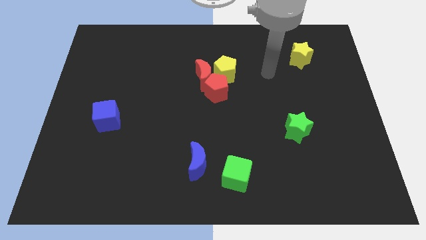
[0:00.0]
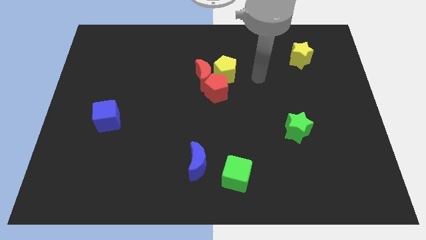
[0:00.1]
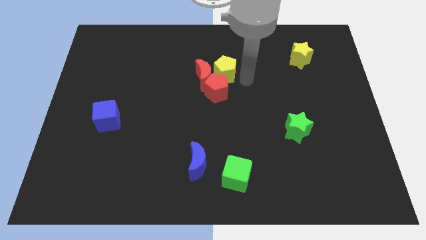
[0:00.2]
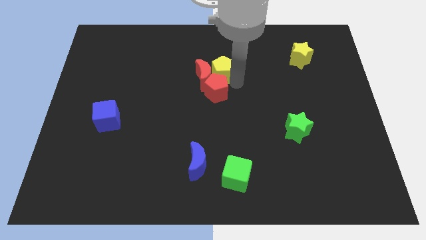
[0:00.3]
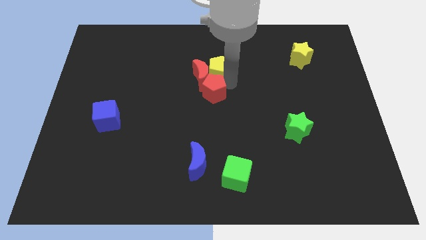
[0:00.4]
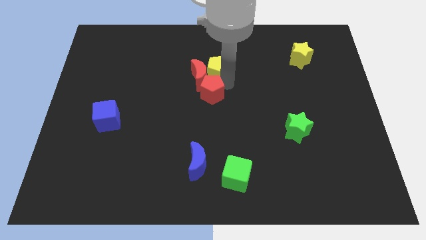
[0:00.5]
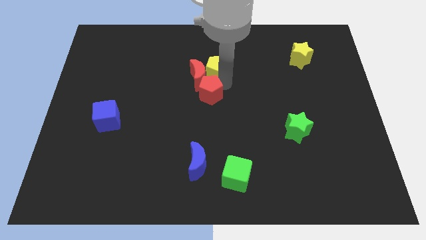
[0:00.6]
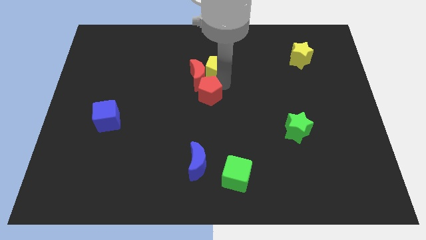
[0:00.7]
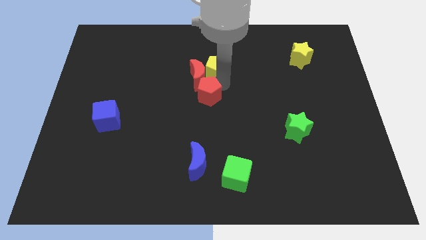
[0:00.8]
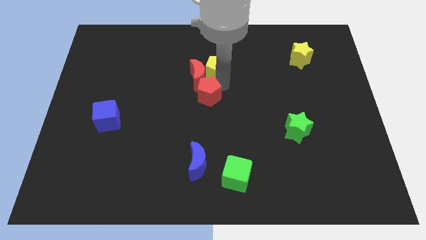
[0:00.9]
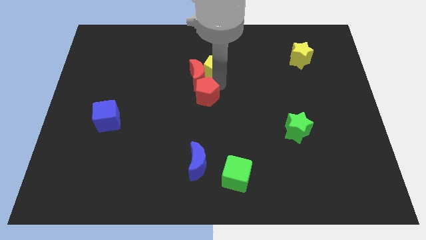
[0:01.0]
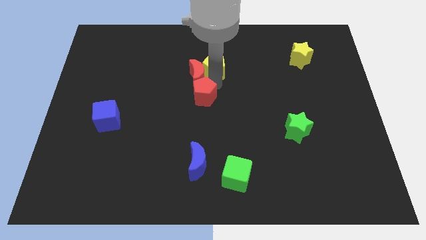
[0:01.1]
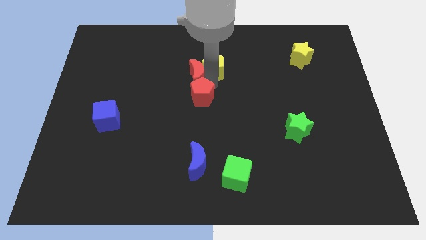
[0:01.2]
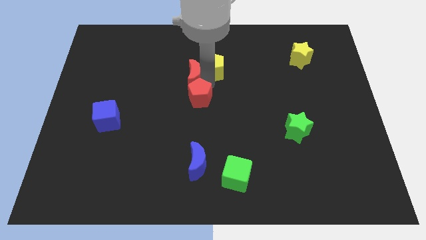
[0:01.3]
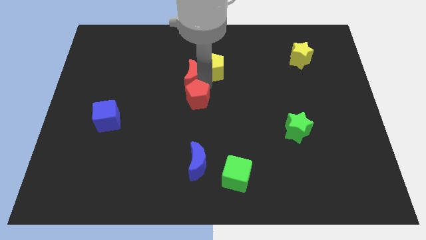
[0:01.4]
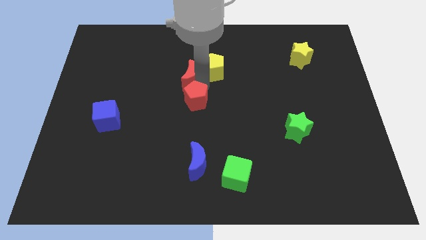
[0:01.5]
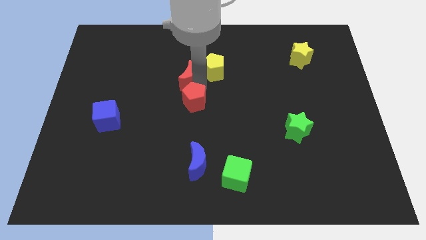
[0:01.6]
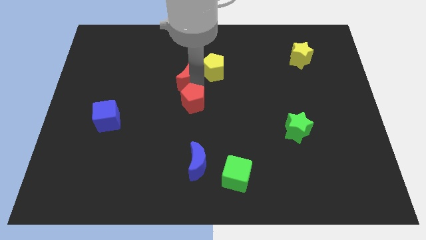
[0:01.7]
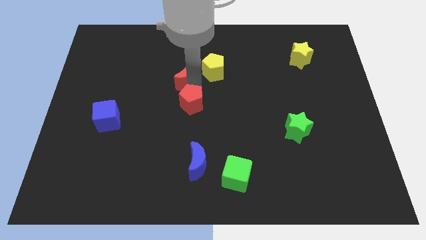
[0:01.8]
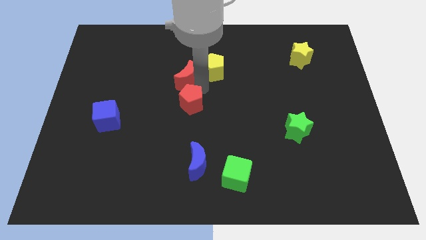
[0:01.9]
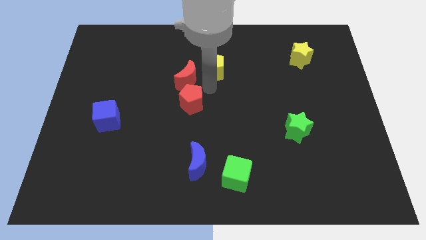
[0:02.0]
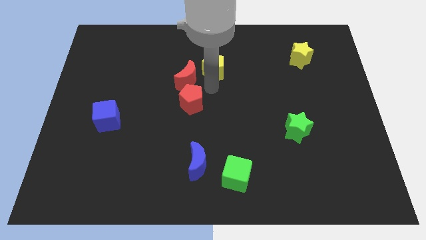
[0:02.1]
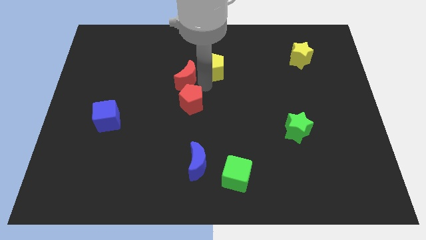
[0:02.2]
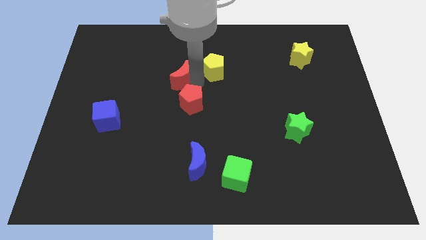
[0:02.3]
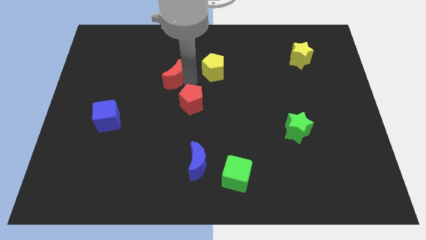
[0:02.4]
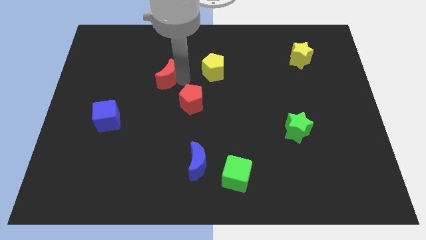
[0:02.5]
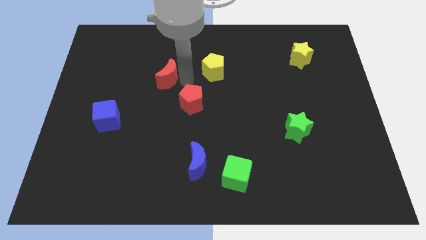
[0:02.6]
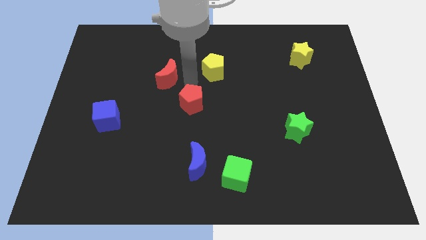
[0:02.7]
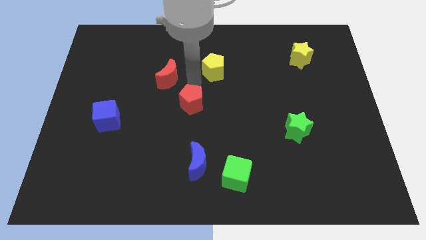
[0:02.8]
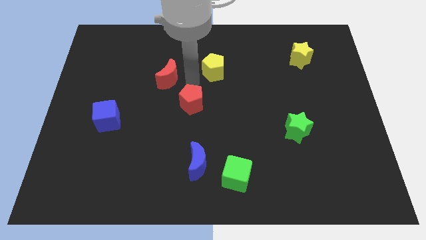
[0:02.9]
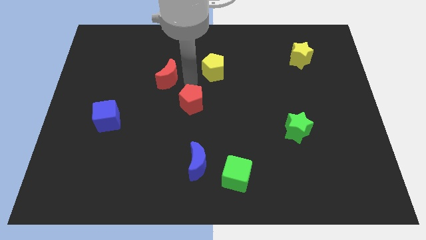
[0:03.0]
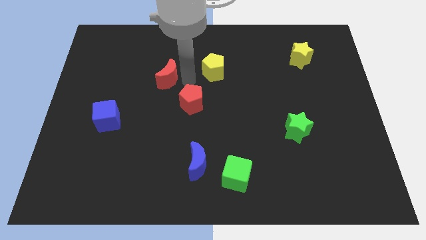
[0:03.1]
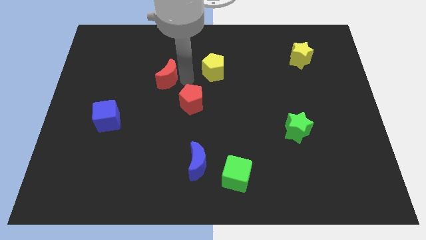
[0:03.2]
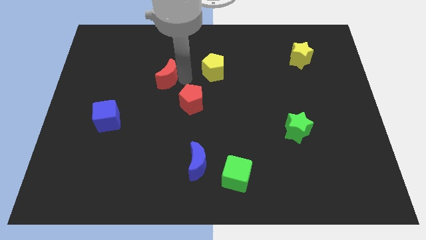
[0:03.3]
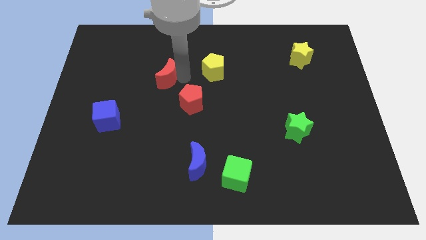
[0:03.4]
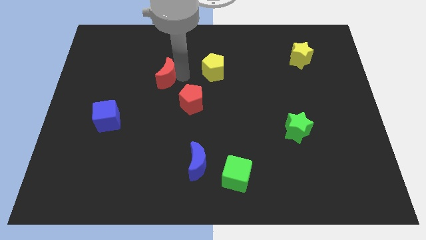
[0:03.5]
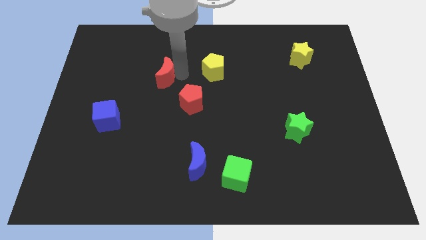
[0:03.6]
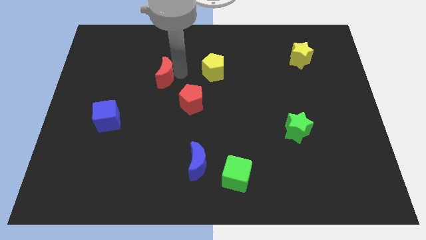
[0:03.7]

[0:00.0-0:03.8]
pull the red moon apart from the red pentagon and yellow pentagon

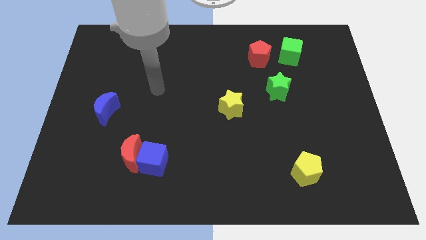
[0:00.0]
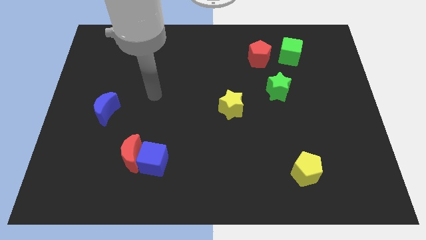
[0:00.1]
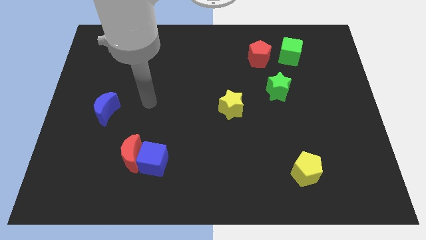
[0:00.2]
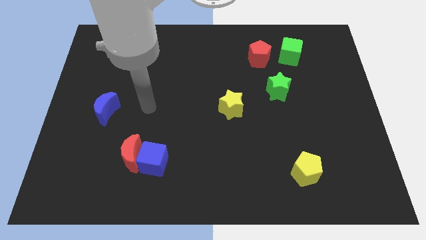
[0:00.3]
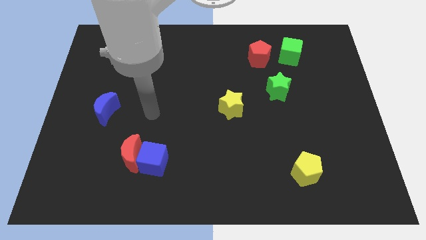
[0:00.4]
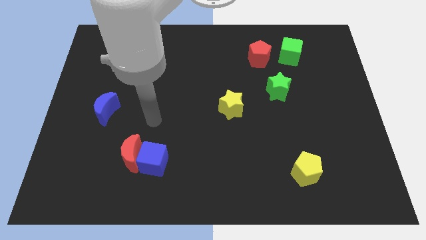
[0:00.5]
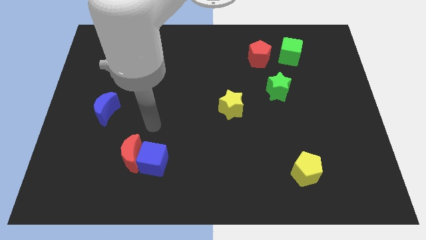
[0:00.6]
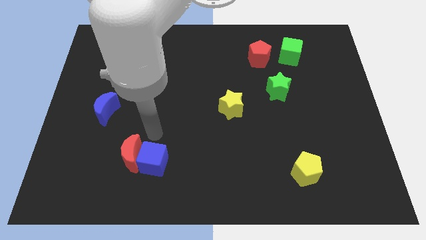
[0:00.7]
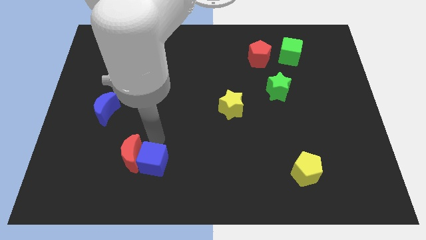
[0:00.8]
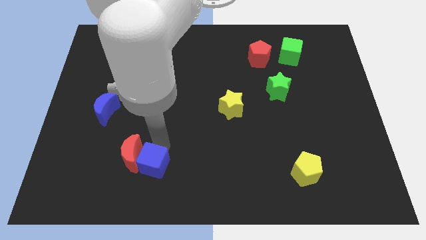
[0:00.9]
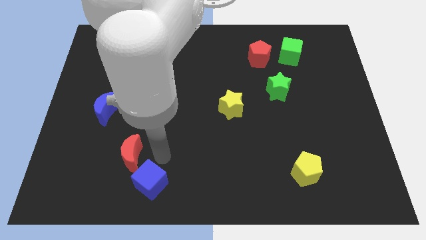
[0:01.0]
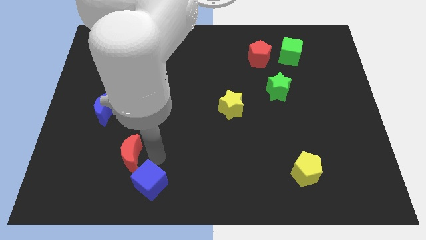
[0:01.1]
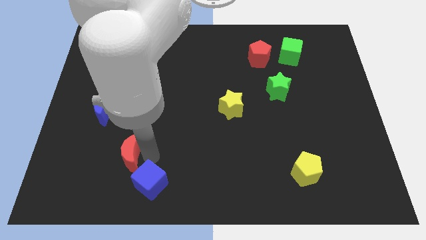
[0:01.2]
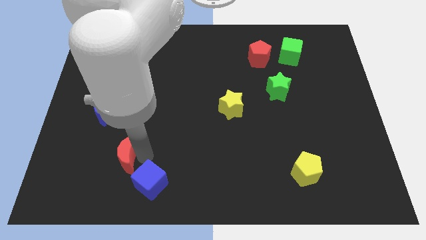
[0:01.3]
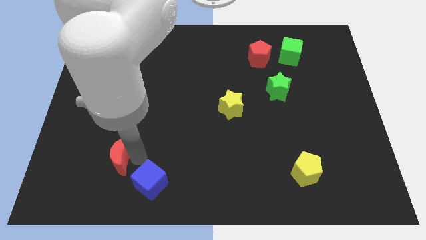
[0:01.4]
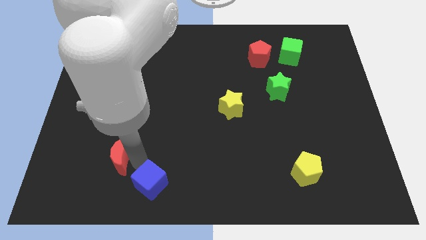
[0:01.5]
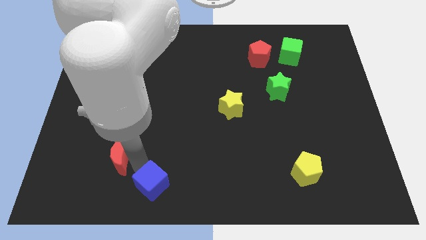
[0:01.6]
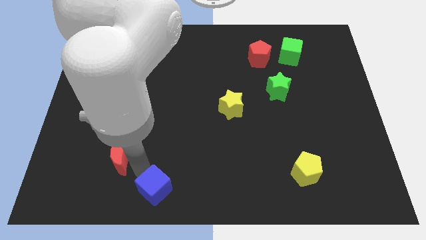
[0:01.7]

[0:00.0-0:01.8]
pull the red moon apart from the blue cube

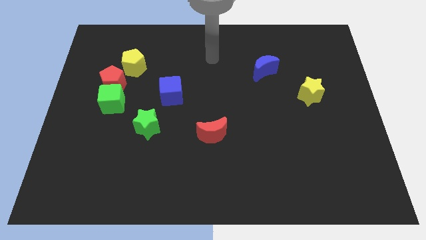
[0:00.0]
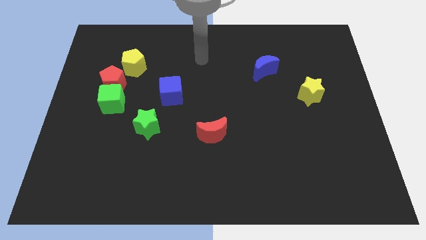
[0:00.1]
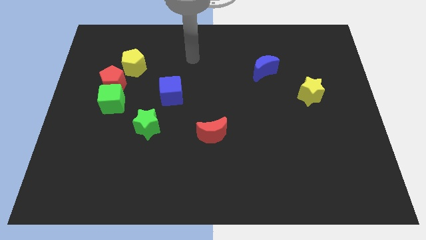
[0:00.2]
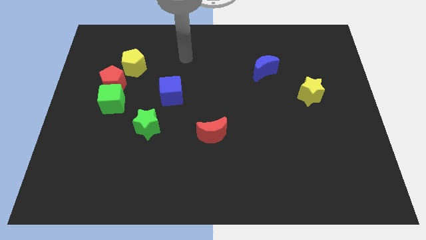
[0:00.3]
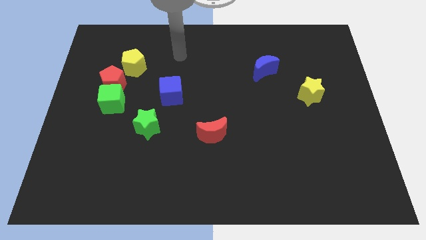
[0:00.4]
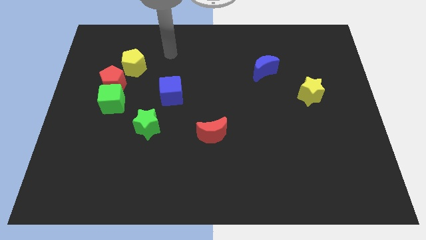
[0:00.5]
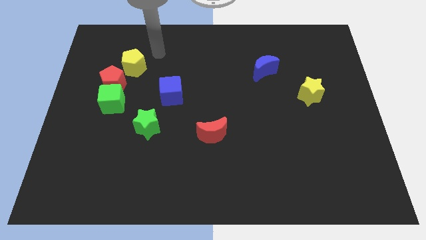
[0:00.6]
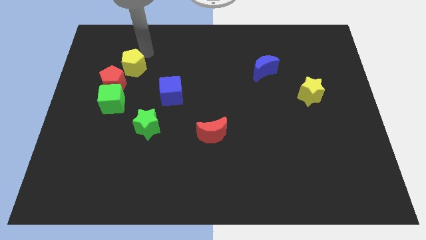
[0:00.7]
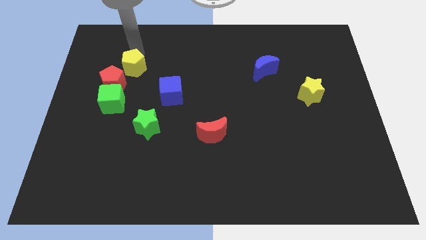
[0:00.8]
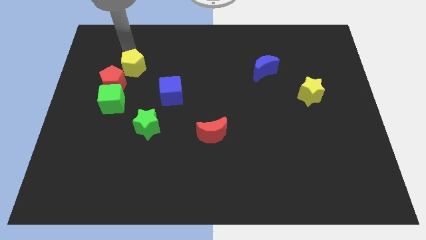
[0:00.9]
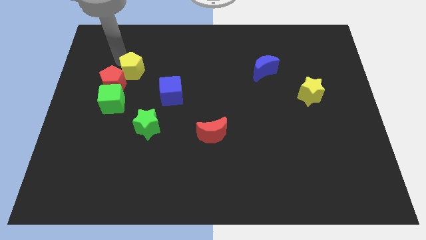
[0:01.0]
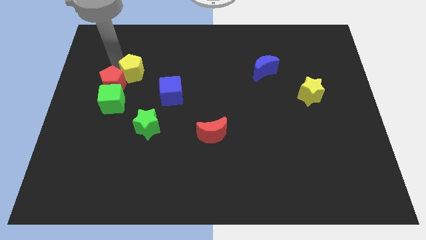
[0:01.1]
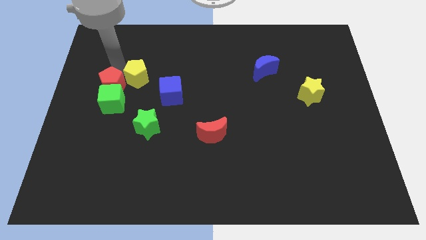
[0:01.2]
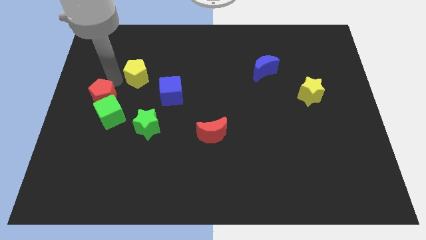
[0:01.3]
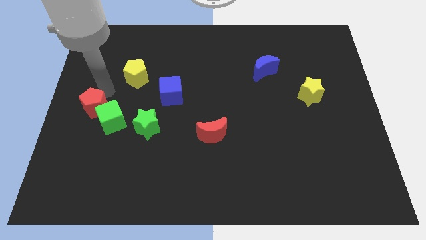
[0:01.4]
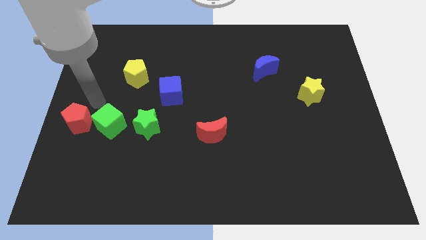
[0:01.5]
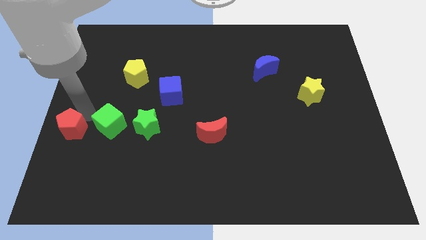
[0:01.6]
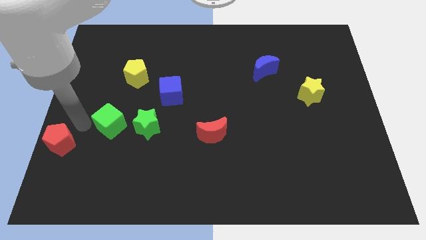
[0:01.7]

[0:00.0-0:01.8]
move the green cube away from the red pentagon

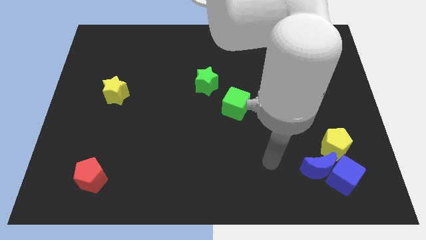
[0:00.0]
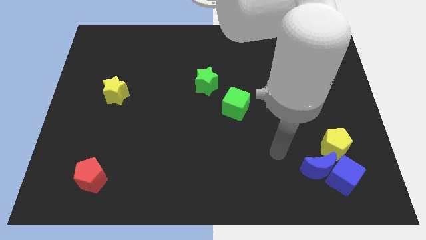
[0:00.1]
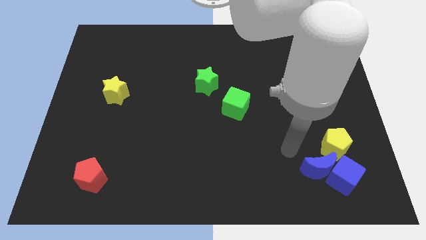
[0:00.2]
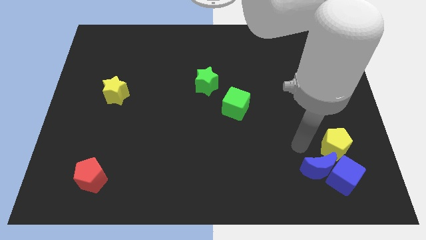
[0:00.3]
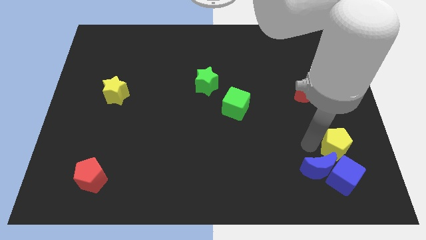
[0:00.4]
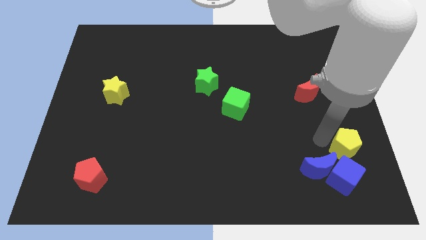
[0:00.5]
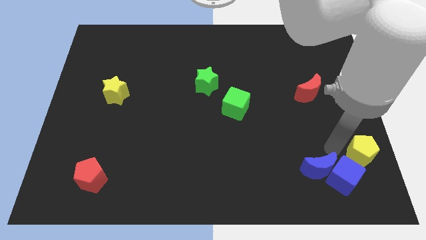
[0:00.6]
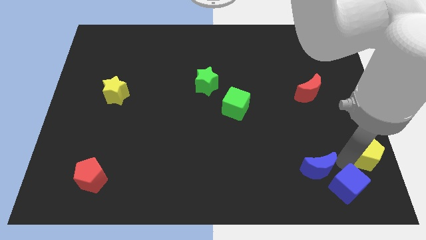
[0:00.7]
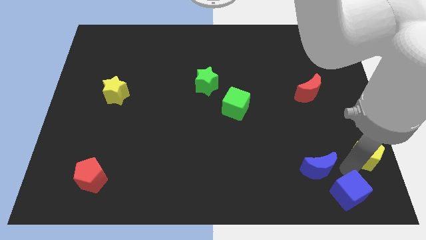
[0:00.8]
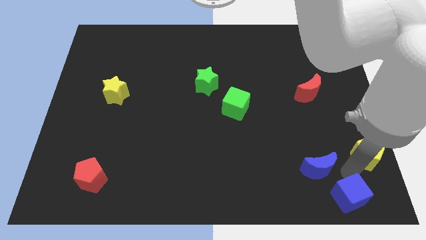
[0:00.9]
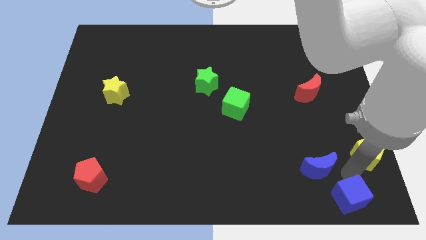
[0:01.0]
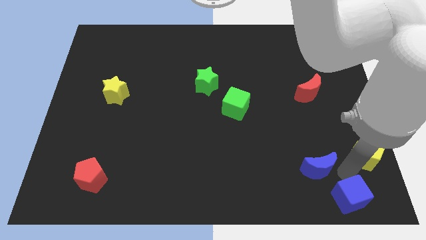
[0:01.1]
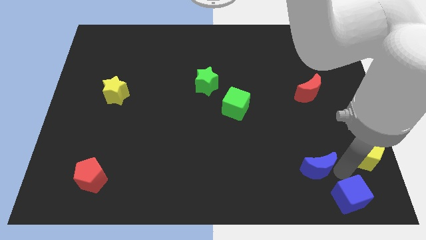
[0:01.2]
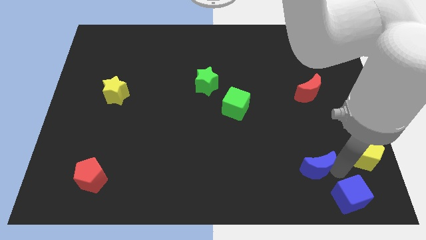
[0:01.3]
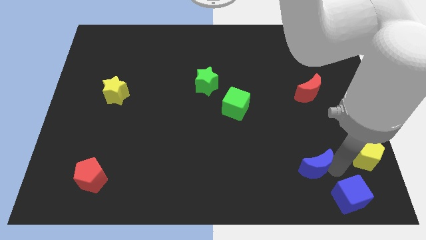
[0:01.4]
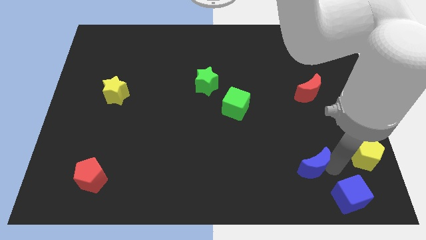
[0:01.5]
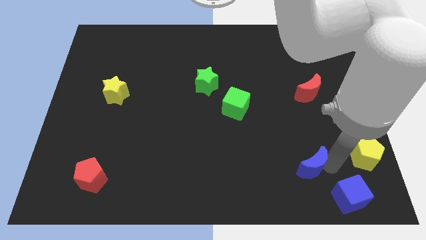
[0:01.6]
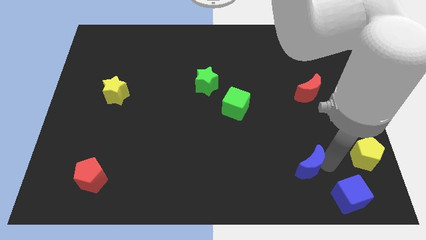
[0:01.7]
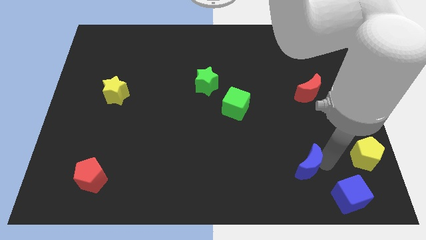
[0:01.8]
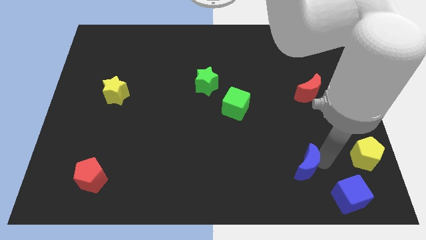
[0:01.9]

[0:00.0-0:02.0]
move the blue moon away from the blue cube and yellow pentagon
